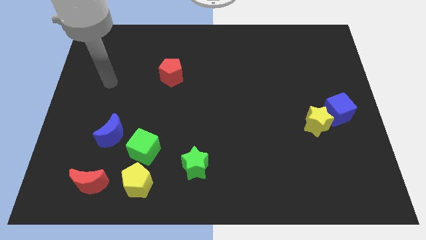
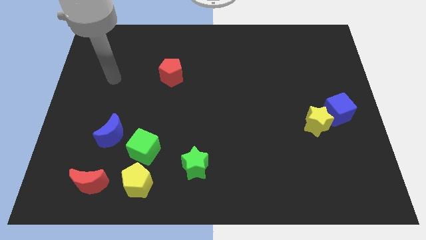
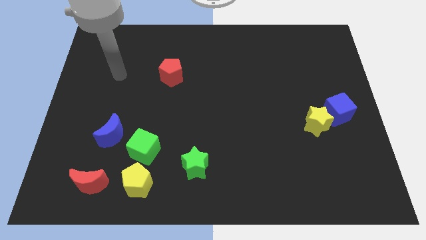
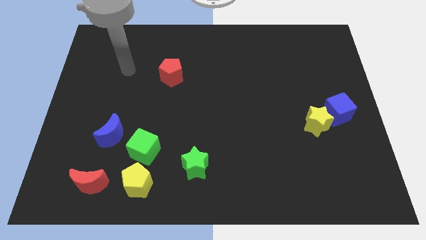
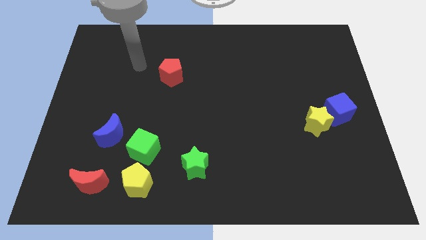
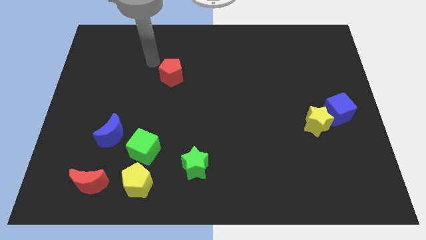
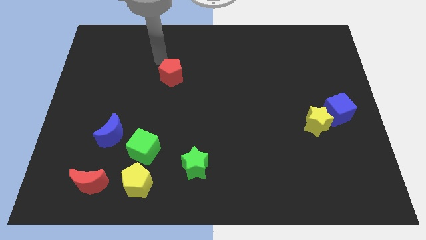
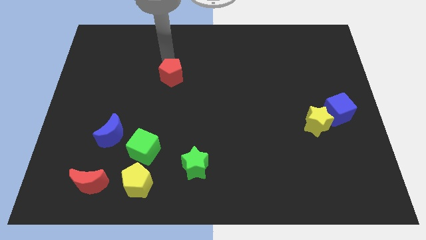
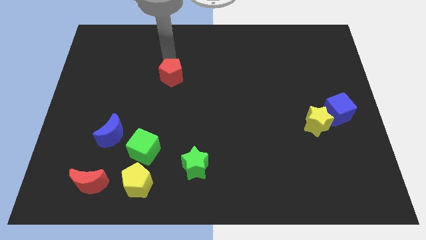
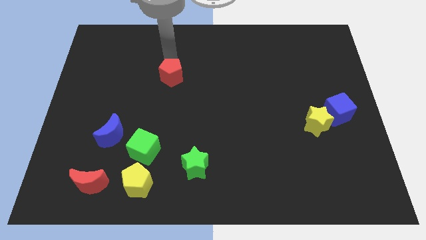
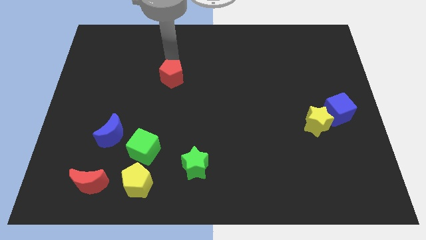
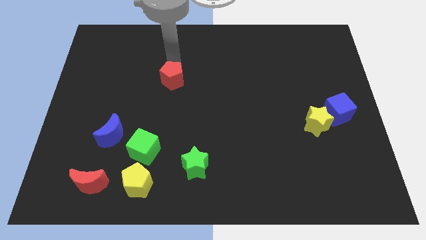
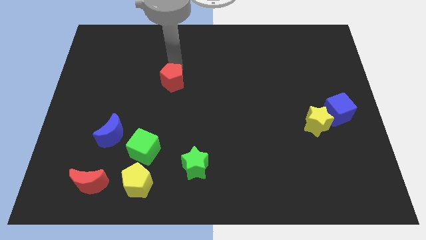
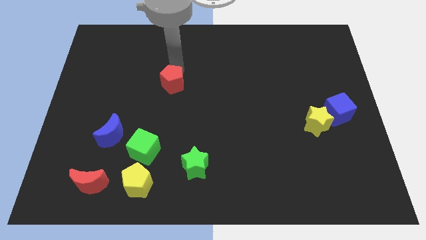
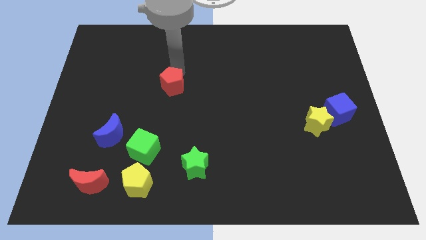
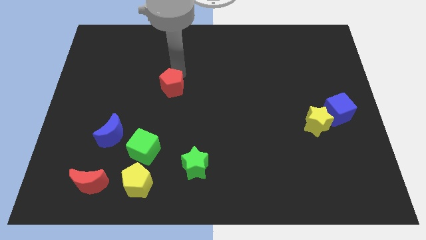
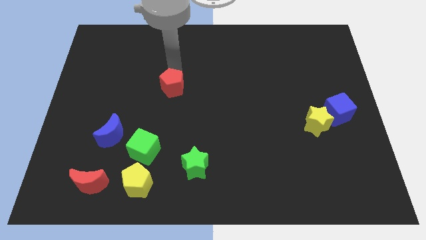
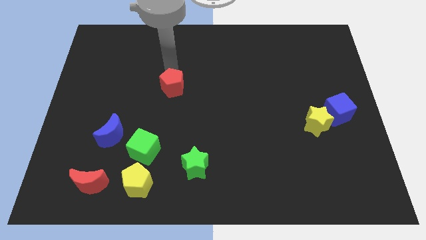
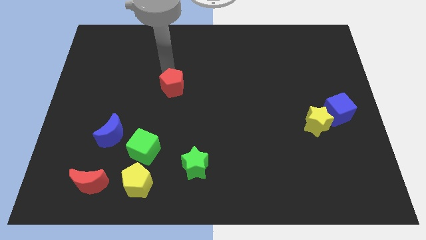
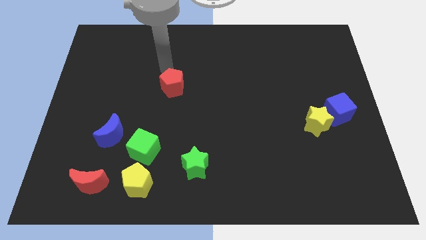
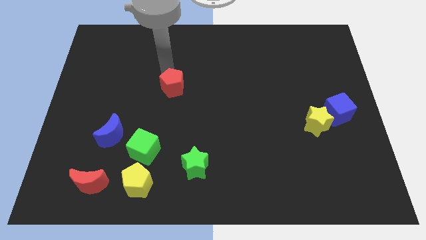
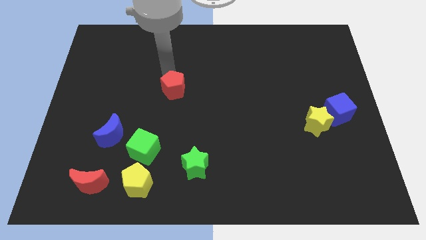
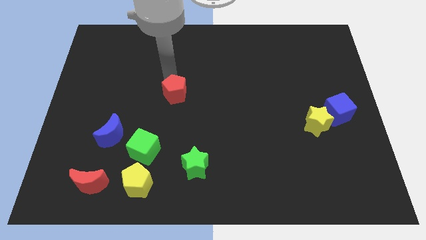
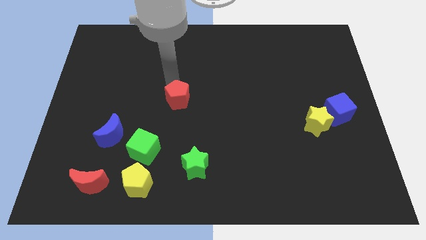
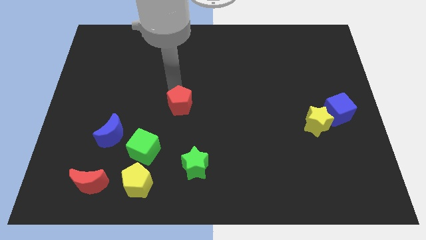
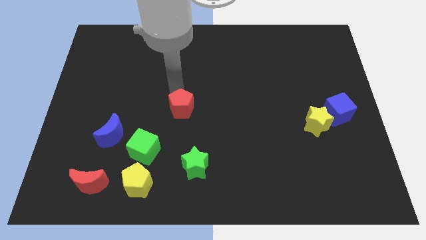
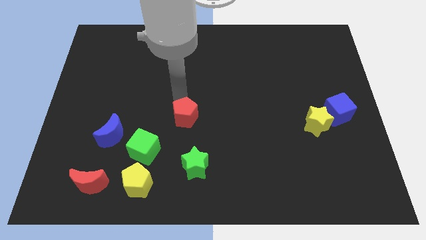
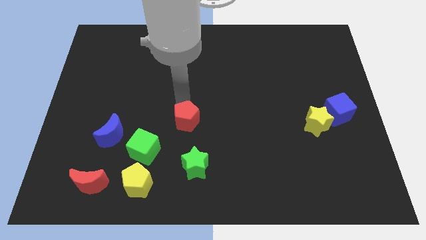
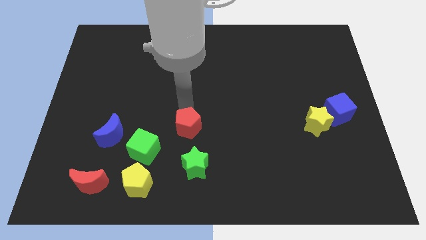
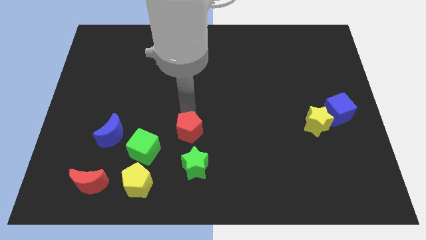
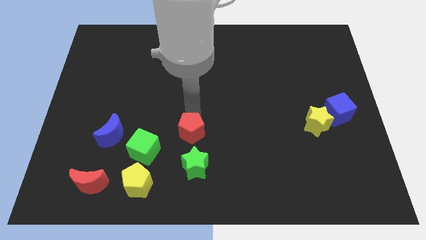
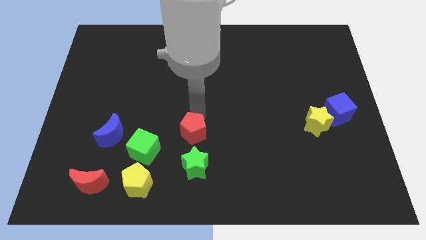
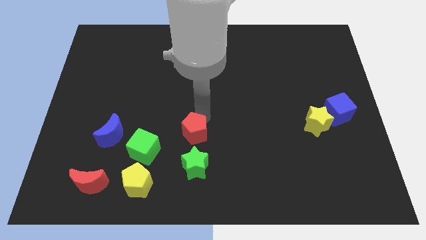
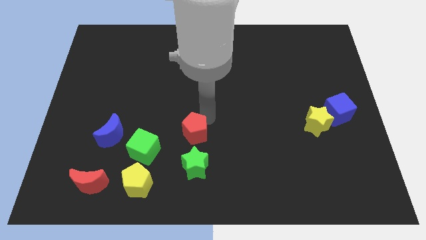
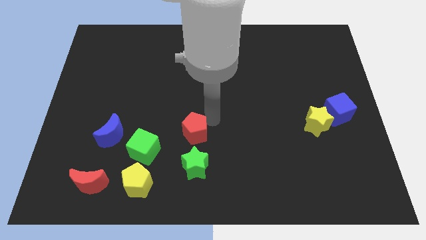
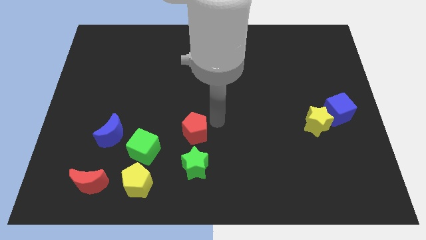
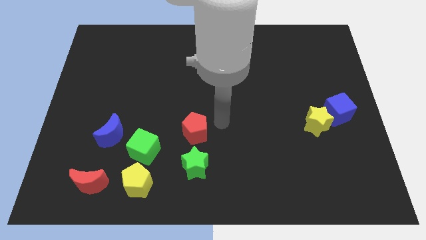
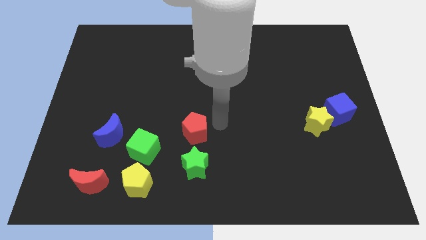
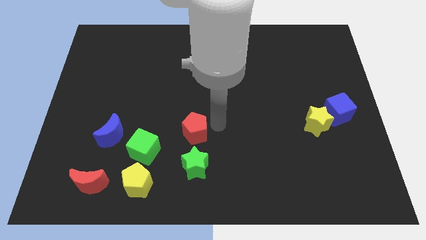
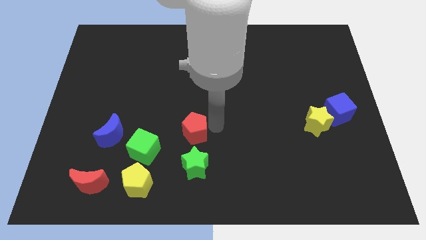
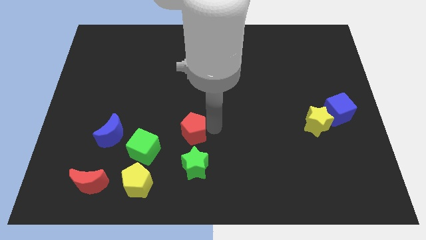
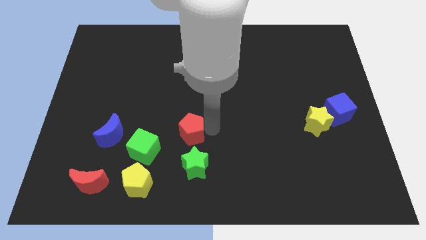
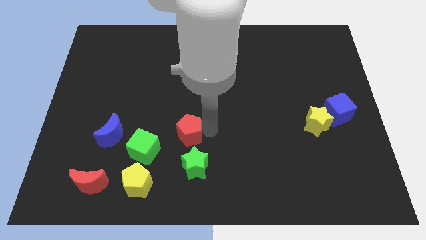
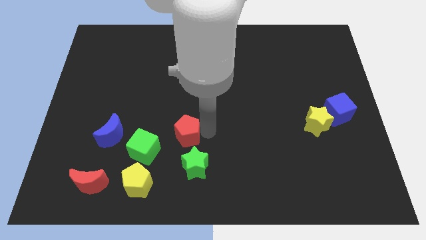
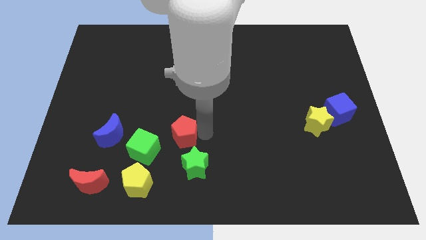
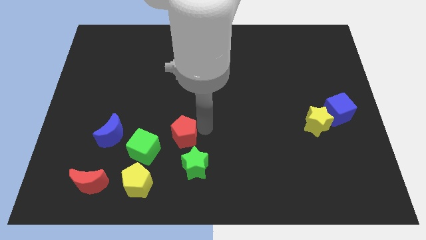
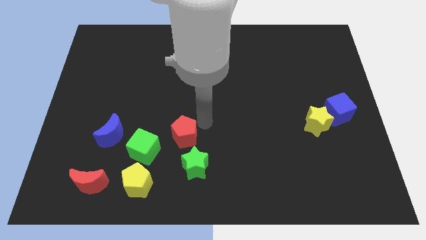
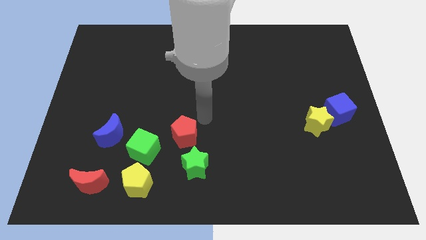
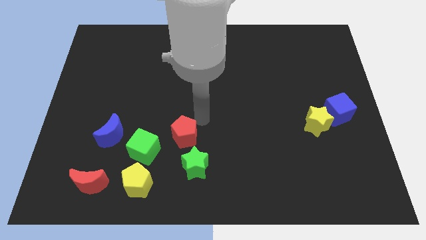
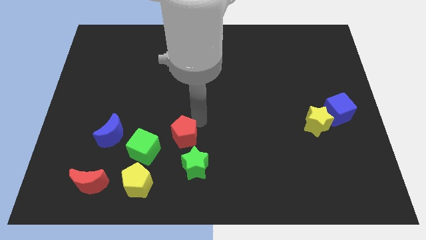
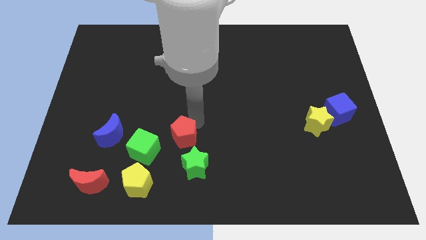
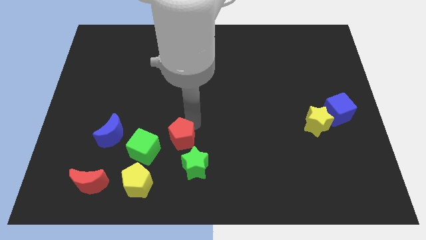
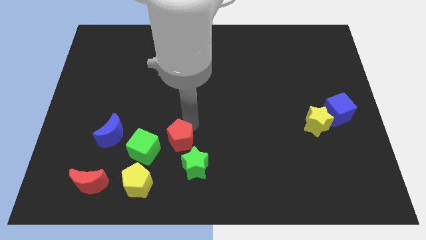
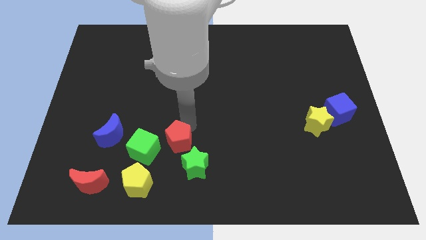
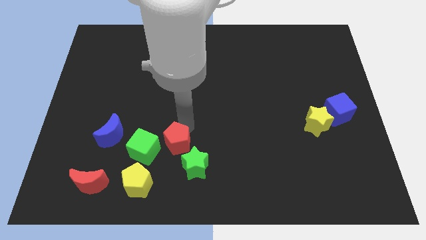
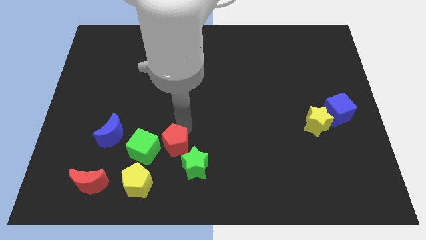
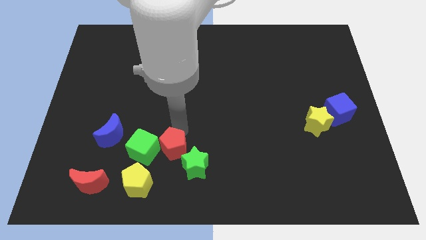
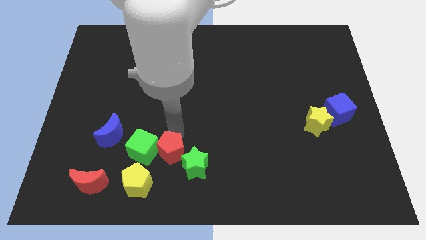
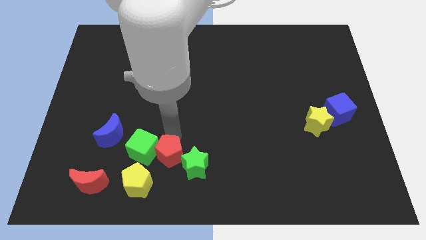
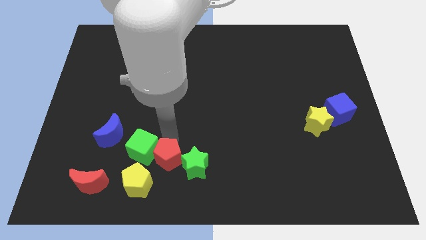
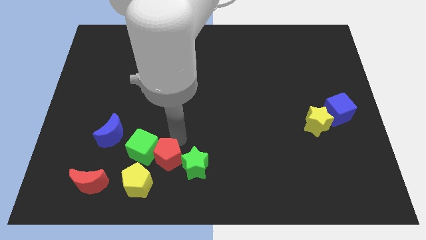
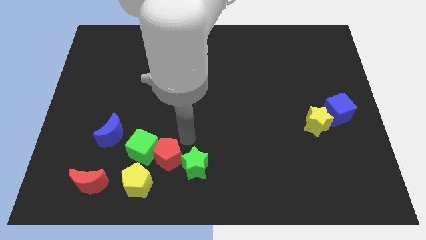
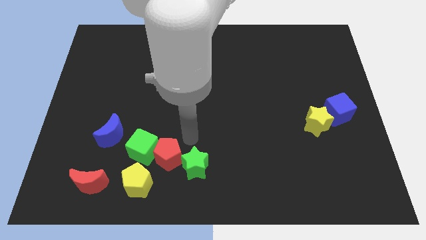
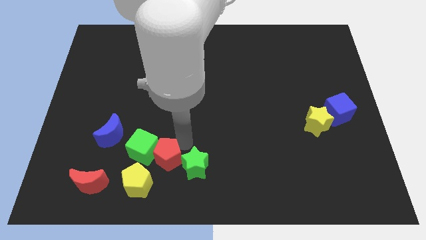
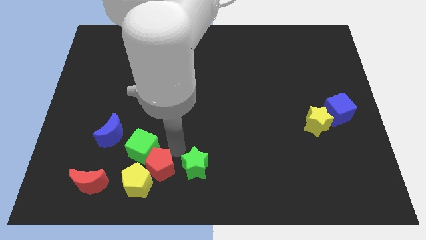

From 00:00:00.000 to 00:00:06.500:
push the red pentagon to the yellow pentagon

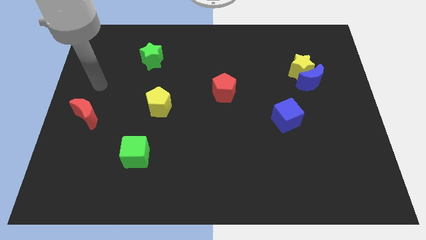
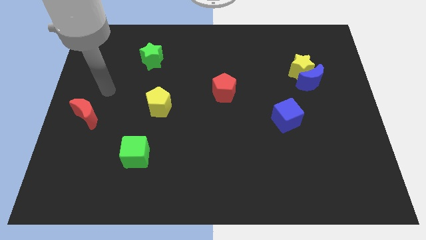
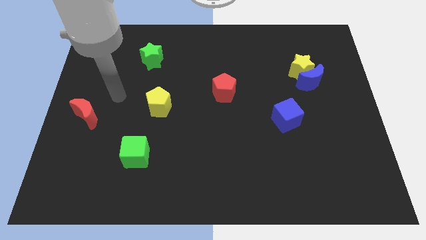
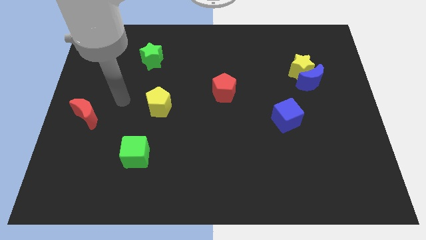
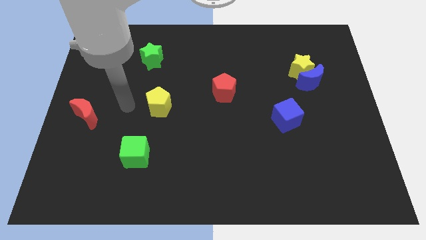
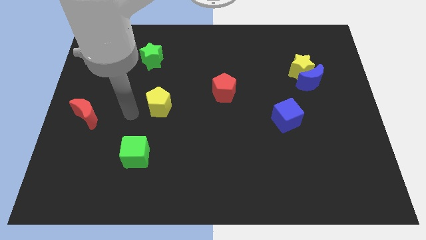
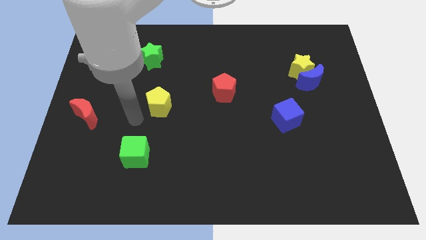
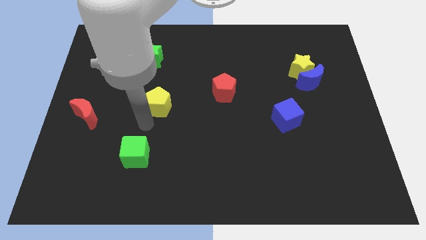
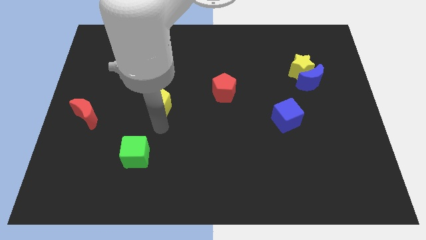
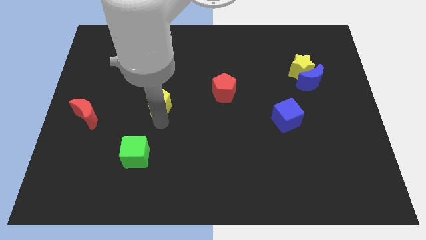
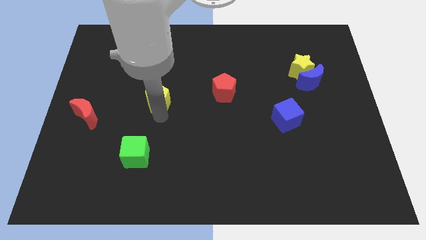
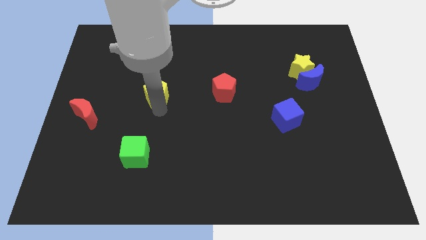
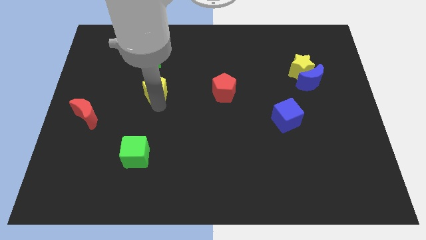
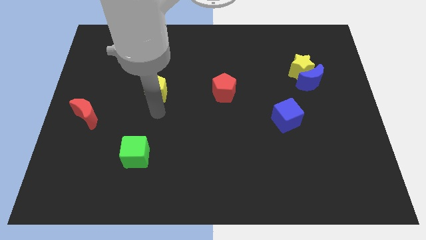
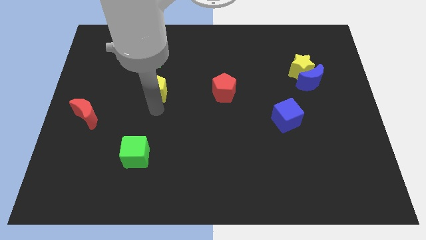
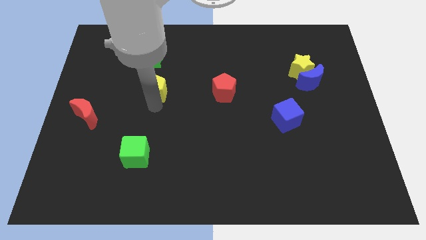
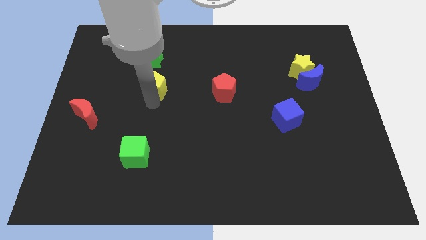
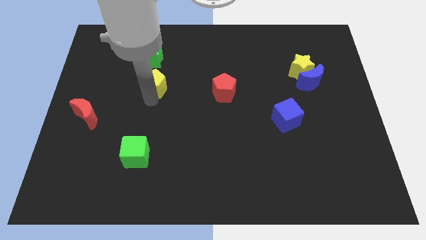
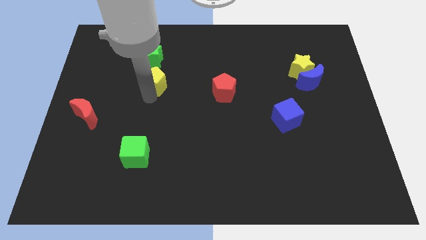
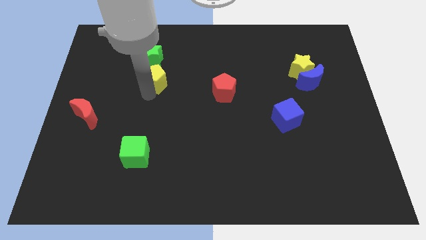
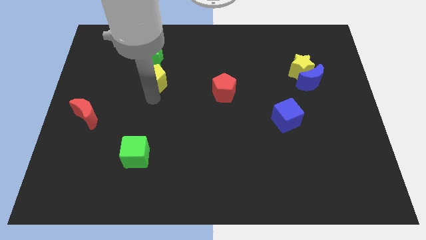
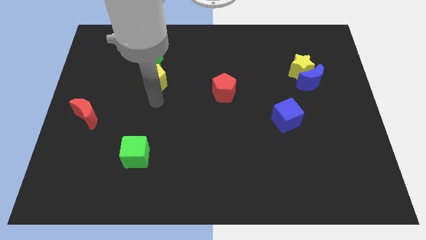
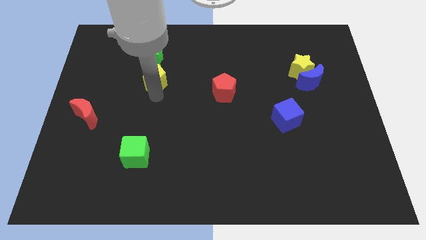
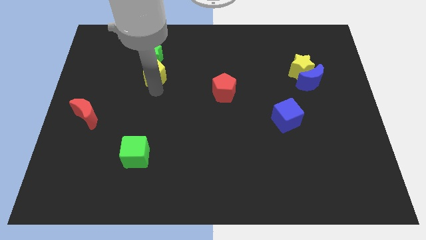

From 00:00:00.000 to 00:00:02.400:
slide the yellow pentagon to the green star
